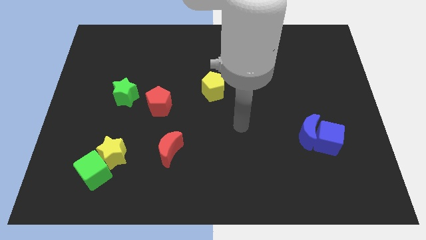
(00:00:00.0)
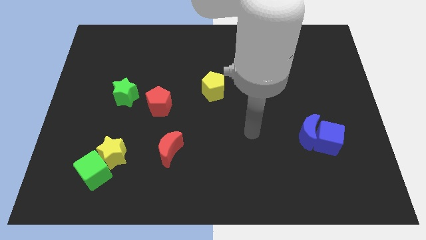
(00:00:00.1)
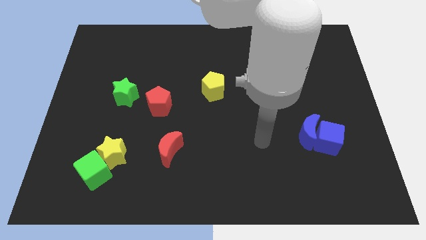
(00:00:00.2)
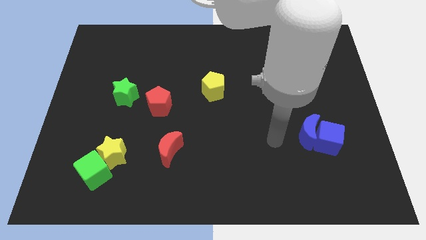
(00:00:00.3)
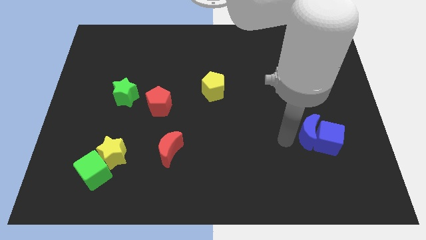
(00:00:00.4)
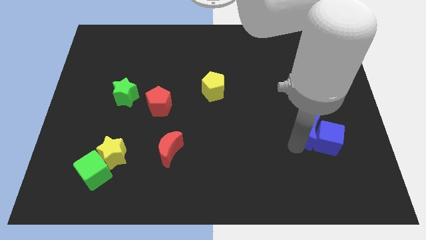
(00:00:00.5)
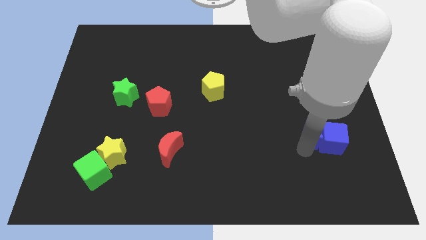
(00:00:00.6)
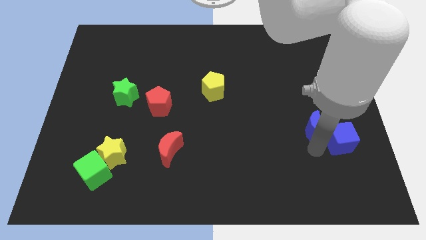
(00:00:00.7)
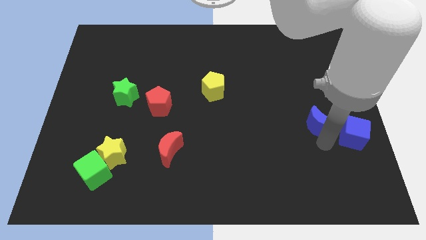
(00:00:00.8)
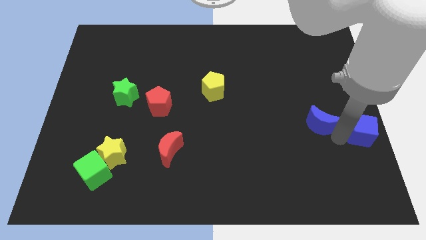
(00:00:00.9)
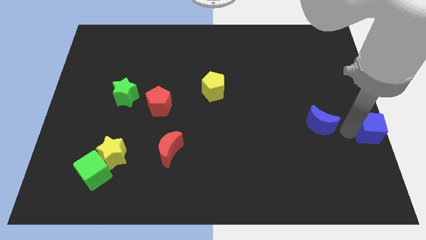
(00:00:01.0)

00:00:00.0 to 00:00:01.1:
separate the blue moon from the blue cube

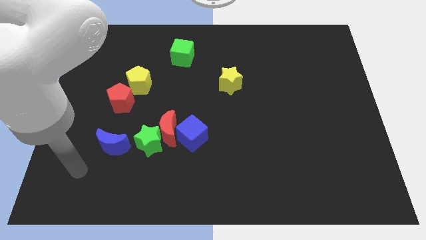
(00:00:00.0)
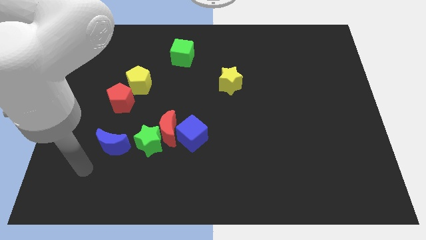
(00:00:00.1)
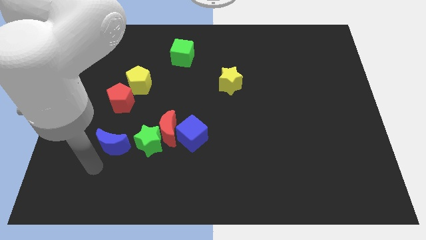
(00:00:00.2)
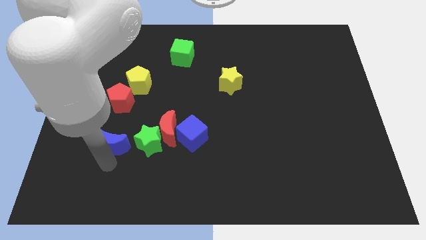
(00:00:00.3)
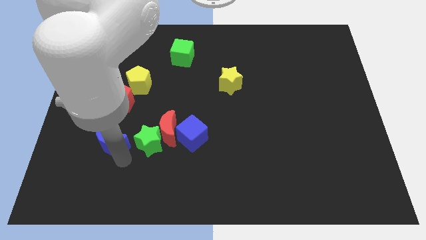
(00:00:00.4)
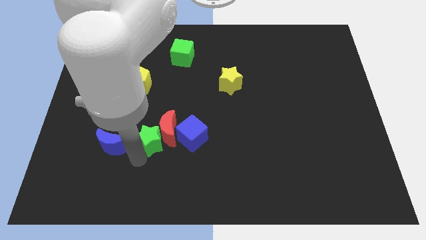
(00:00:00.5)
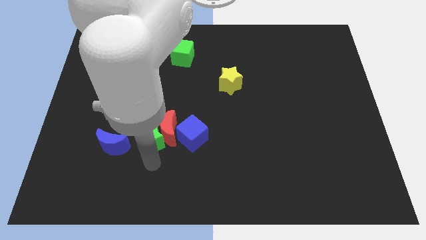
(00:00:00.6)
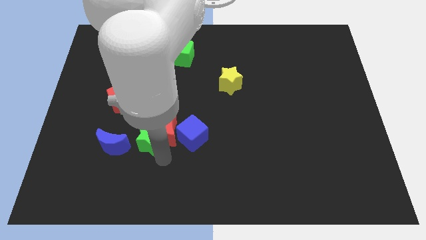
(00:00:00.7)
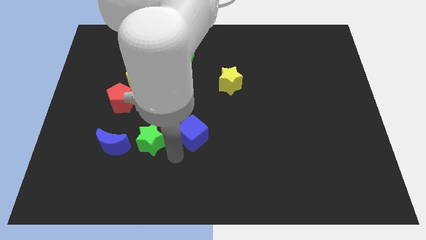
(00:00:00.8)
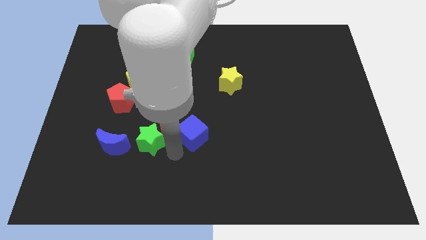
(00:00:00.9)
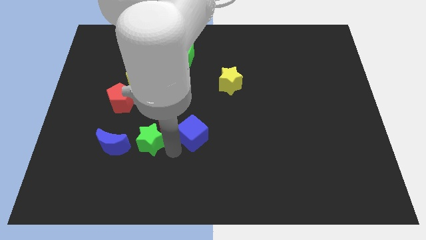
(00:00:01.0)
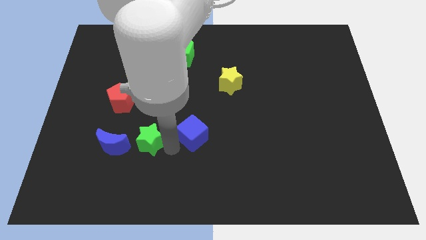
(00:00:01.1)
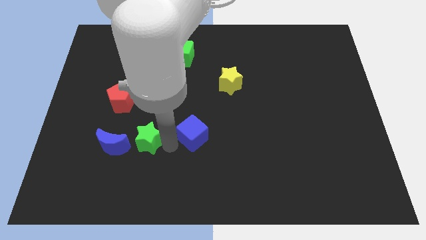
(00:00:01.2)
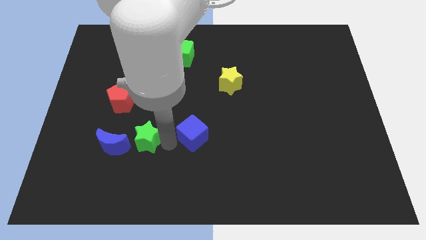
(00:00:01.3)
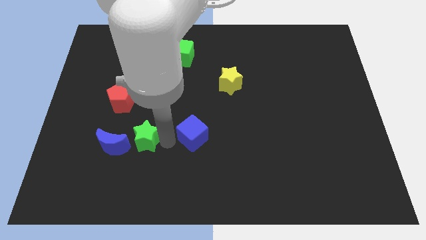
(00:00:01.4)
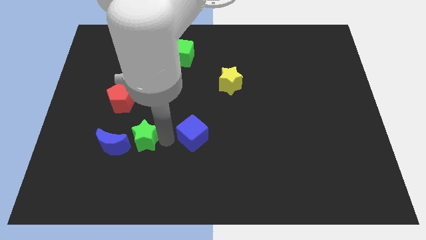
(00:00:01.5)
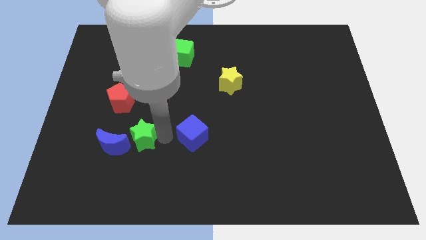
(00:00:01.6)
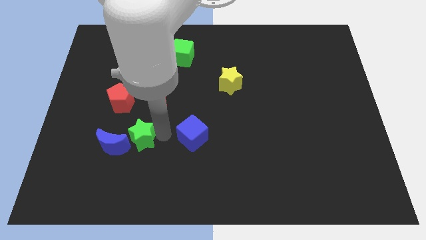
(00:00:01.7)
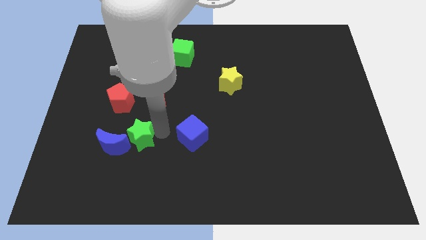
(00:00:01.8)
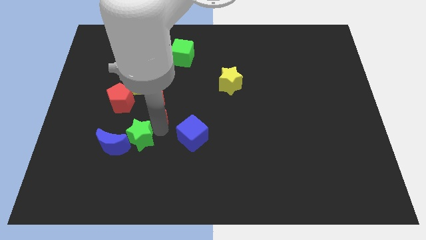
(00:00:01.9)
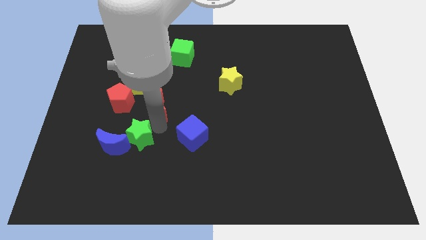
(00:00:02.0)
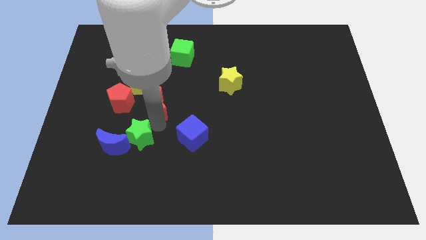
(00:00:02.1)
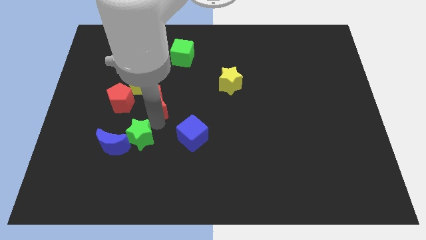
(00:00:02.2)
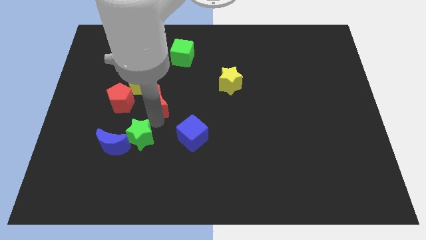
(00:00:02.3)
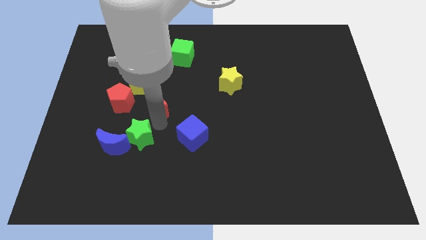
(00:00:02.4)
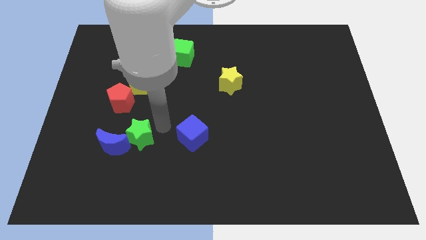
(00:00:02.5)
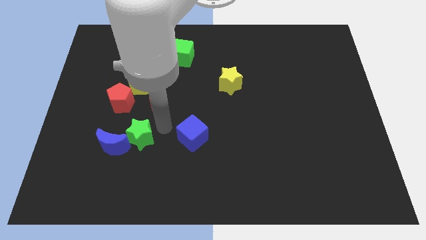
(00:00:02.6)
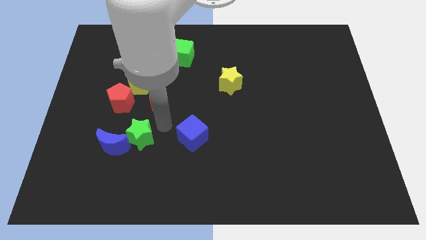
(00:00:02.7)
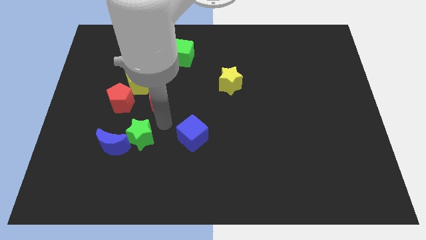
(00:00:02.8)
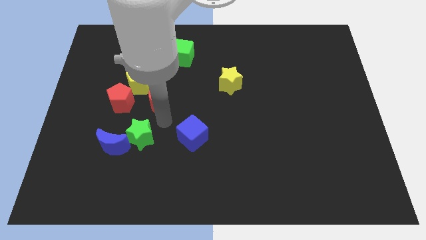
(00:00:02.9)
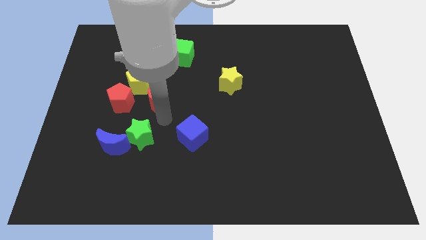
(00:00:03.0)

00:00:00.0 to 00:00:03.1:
separate the red moon from the green star and blue cube

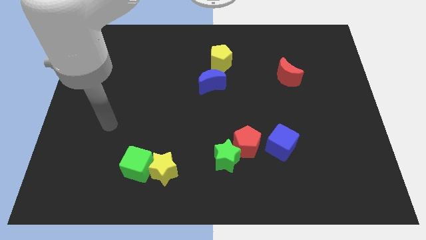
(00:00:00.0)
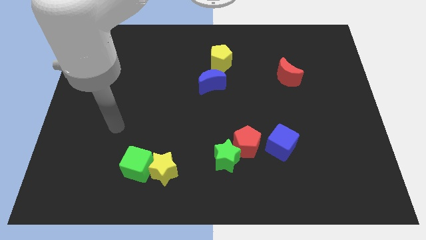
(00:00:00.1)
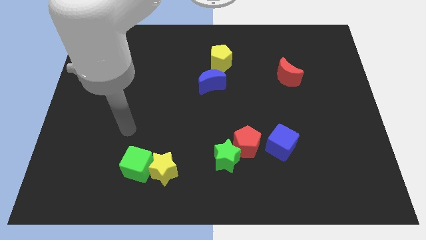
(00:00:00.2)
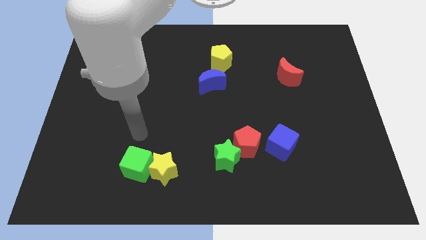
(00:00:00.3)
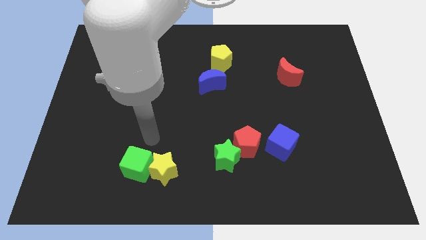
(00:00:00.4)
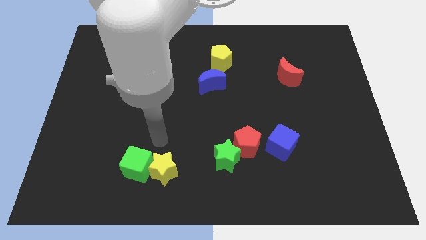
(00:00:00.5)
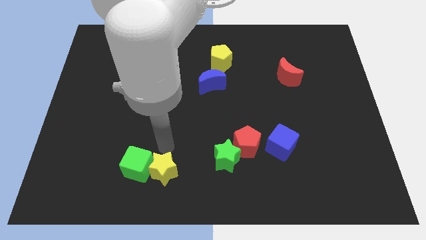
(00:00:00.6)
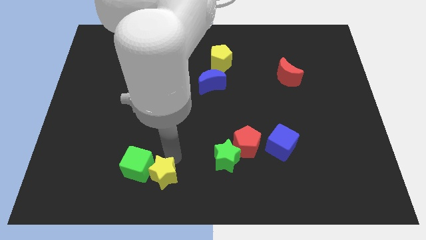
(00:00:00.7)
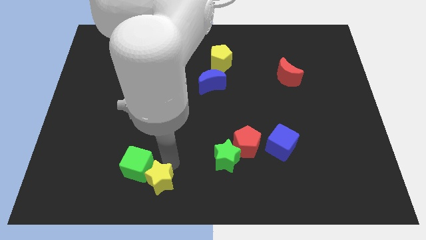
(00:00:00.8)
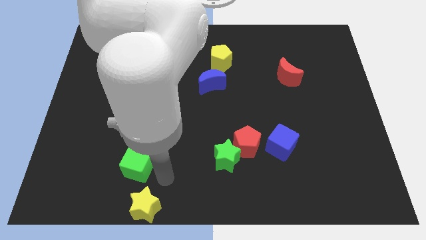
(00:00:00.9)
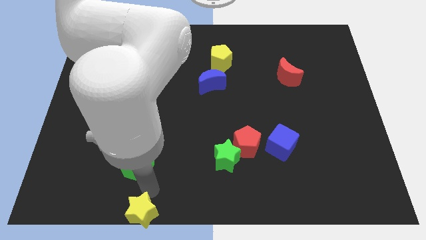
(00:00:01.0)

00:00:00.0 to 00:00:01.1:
move the green cube away from the yellow star

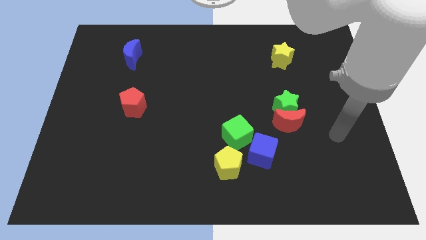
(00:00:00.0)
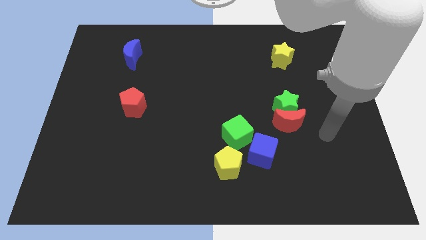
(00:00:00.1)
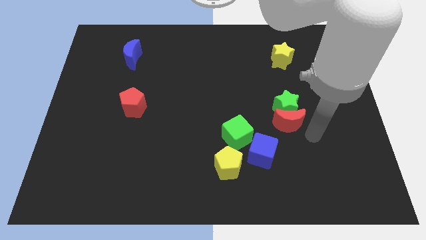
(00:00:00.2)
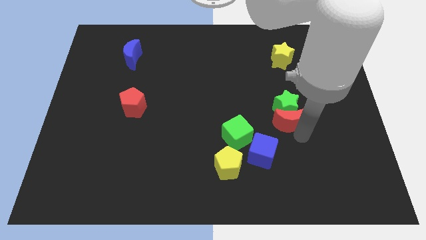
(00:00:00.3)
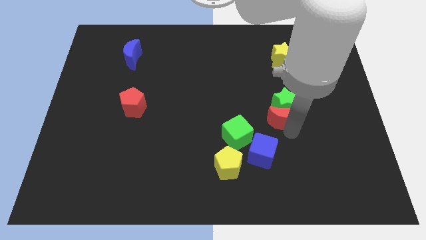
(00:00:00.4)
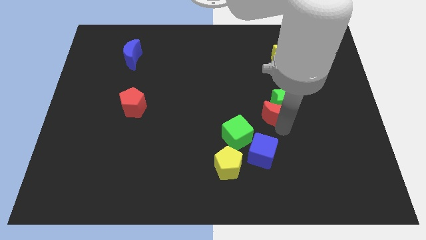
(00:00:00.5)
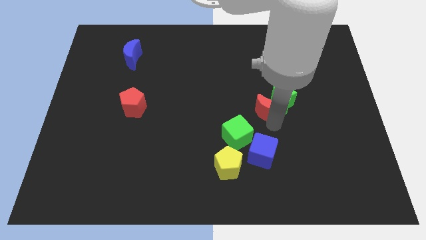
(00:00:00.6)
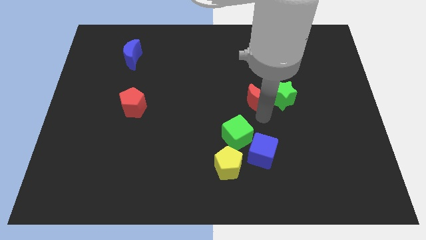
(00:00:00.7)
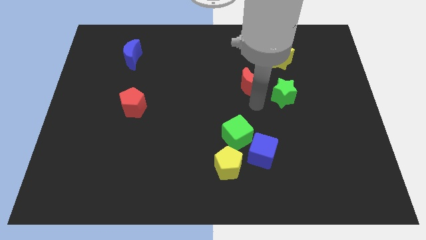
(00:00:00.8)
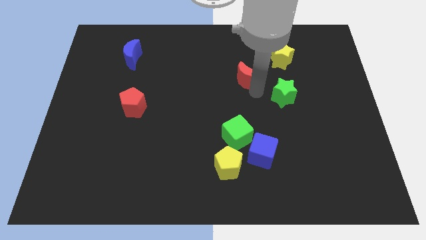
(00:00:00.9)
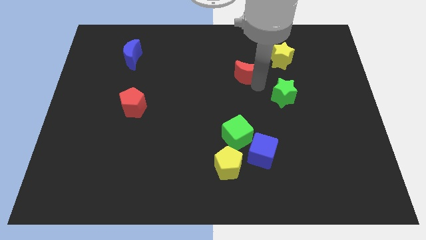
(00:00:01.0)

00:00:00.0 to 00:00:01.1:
separate the green star from the red moon

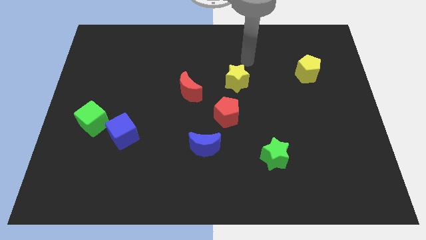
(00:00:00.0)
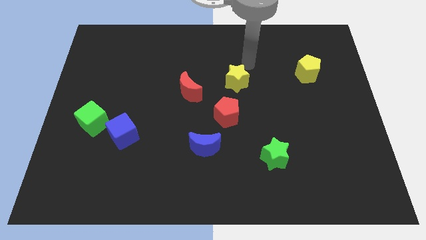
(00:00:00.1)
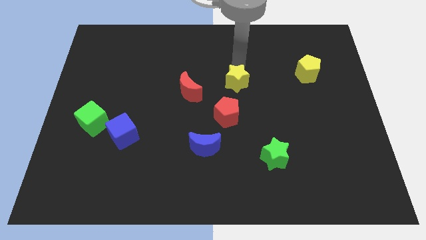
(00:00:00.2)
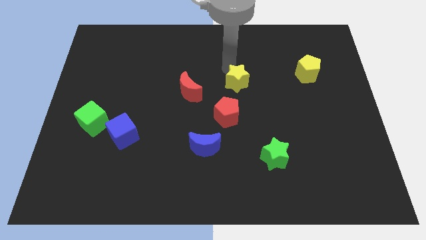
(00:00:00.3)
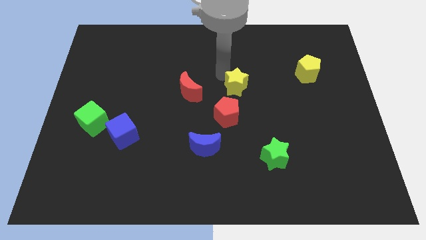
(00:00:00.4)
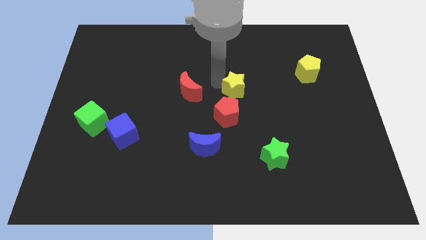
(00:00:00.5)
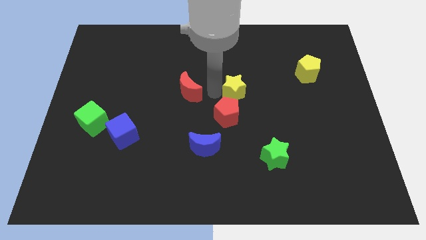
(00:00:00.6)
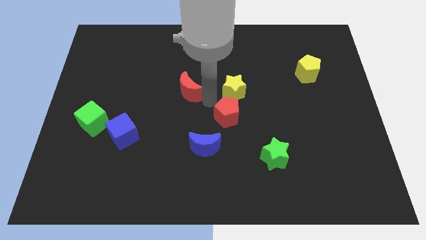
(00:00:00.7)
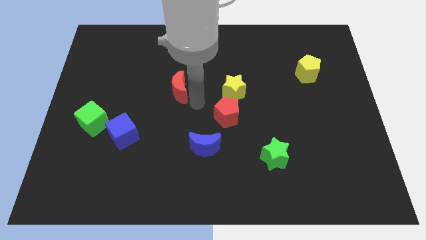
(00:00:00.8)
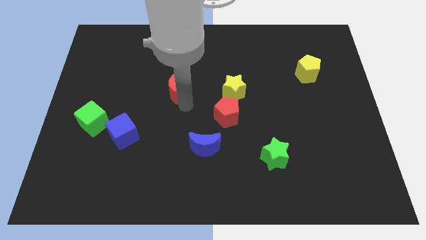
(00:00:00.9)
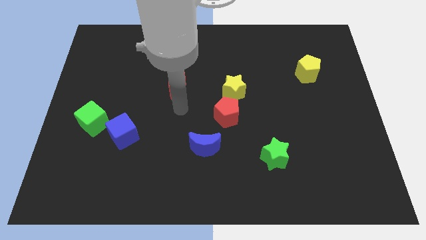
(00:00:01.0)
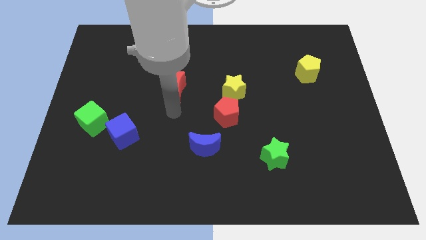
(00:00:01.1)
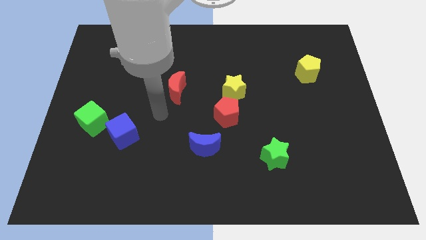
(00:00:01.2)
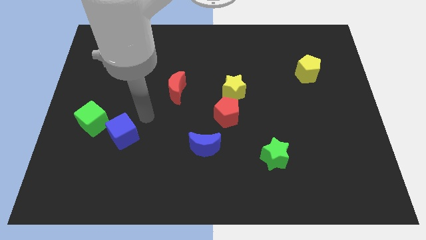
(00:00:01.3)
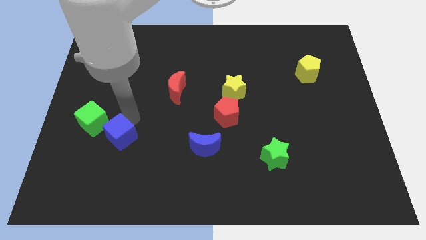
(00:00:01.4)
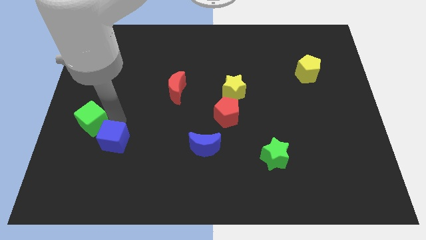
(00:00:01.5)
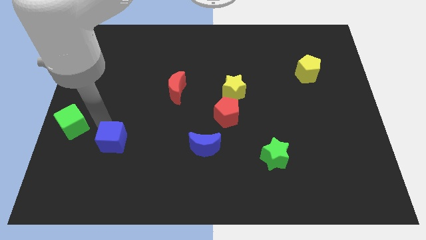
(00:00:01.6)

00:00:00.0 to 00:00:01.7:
separate the blue cube from the green cube

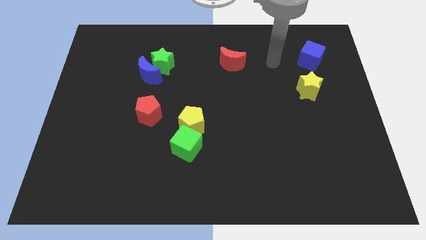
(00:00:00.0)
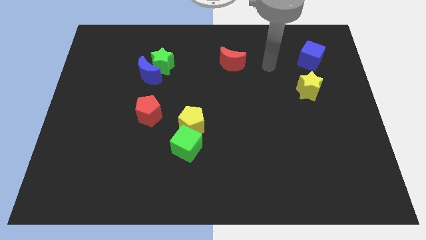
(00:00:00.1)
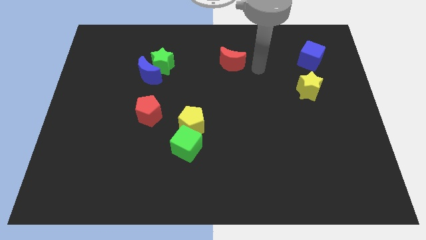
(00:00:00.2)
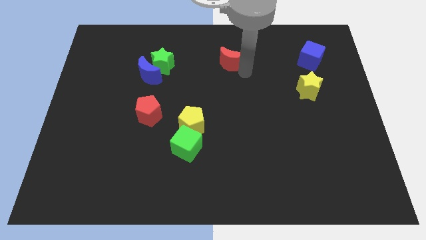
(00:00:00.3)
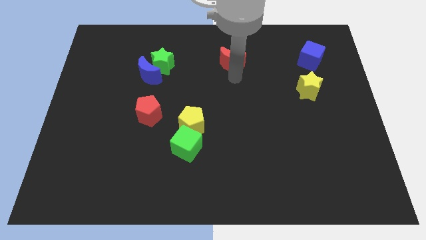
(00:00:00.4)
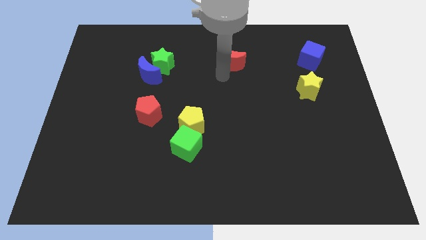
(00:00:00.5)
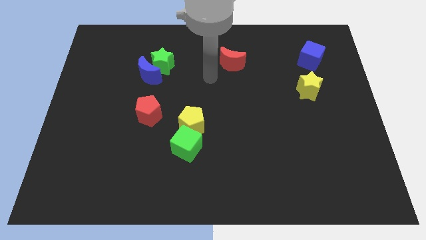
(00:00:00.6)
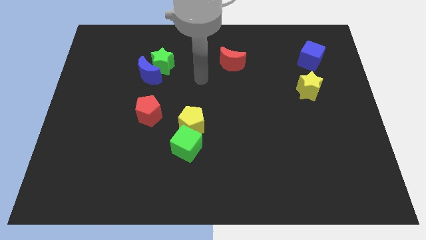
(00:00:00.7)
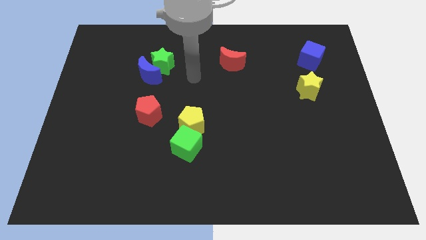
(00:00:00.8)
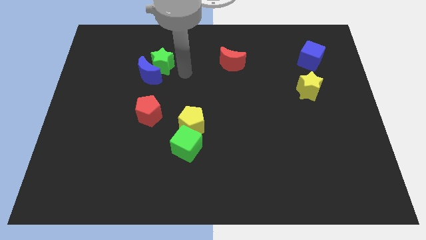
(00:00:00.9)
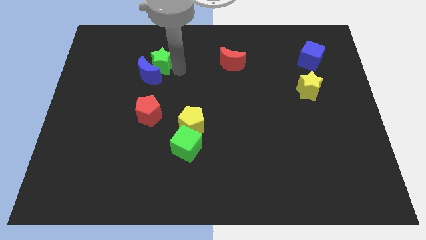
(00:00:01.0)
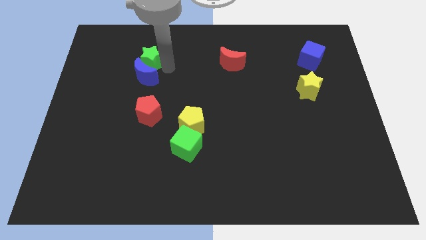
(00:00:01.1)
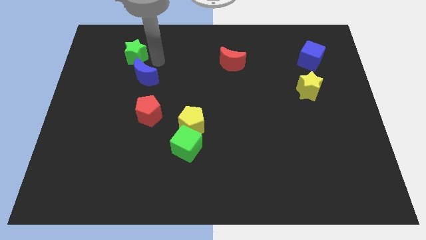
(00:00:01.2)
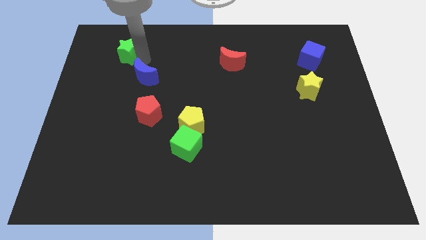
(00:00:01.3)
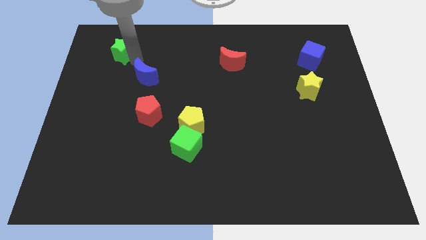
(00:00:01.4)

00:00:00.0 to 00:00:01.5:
separate the blue moon from the green star
